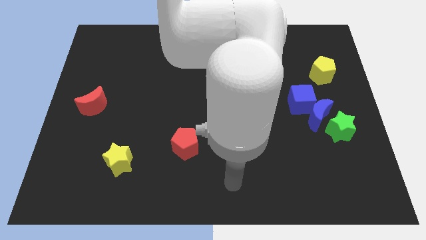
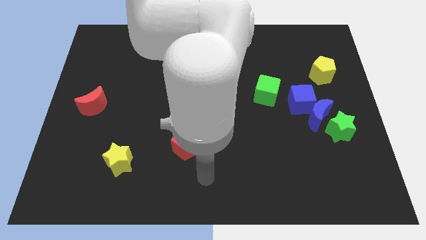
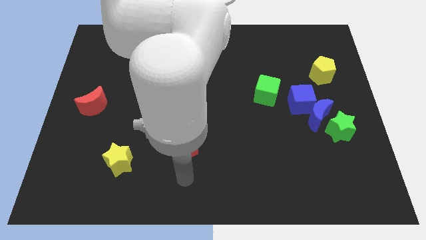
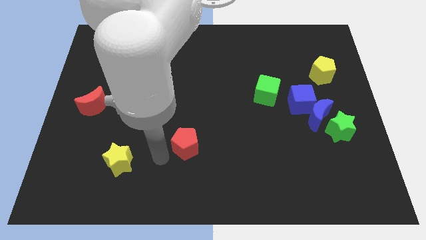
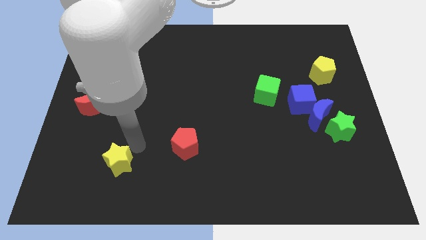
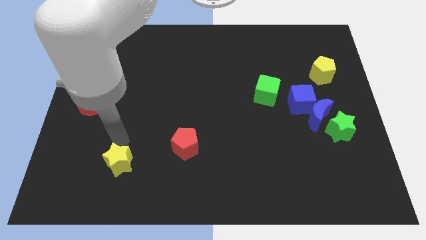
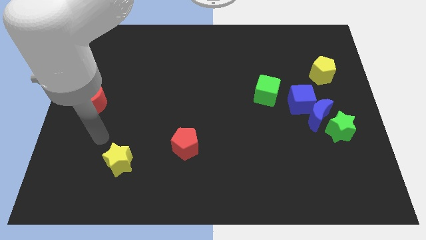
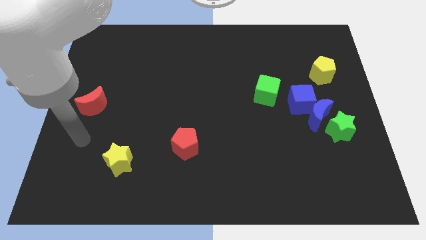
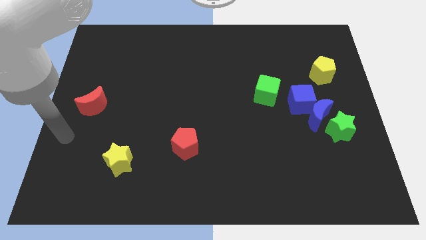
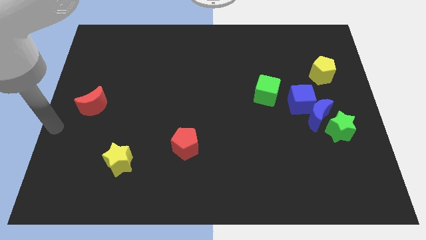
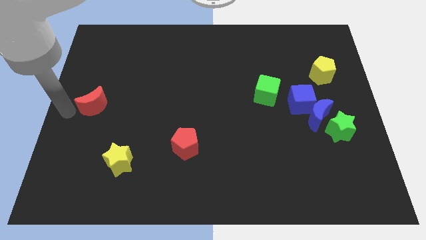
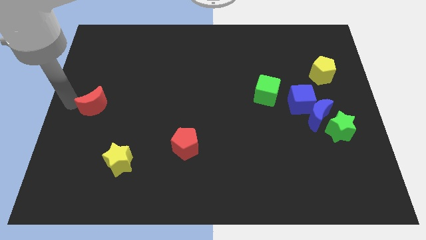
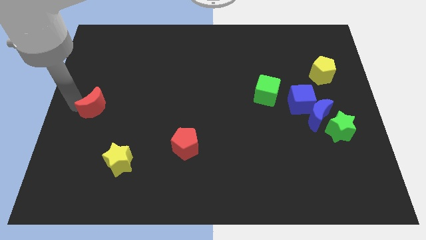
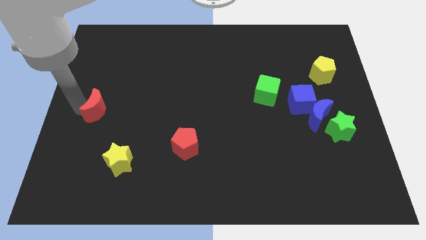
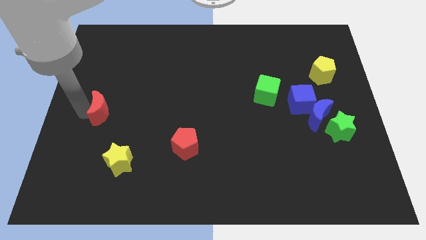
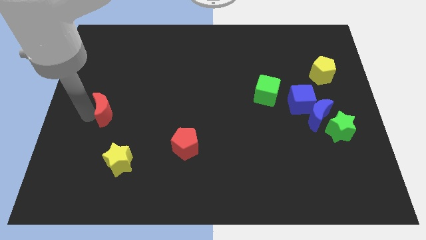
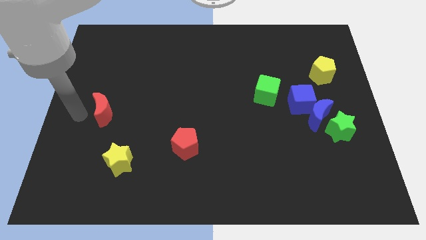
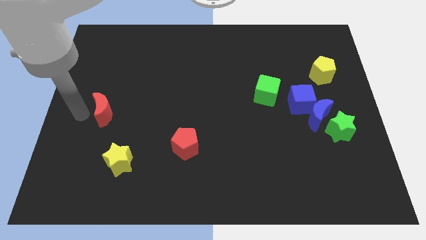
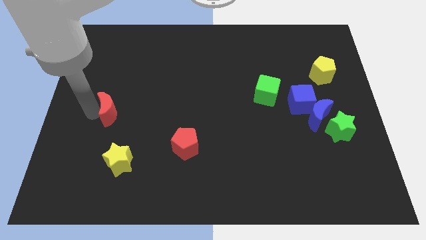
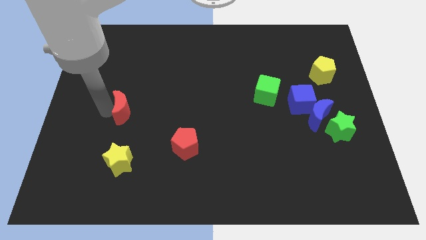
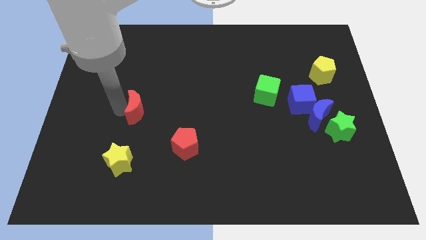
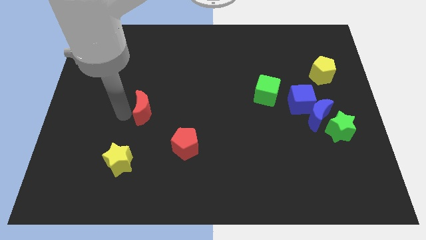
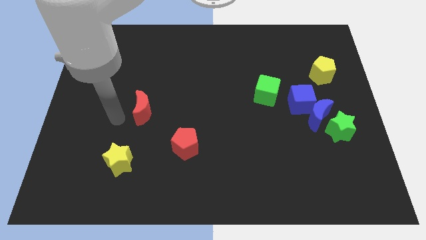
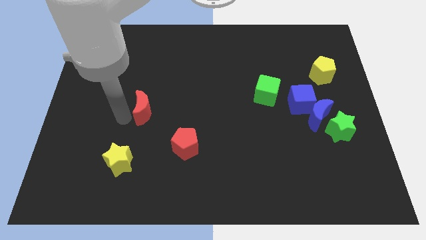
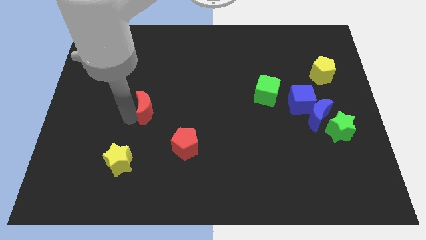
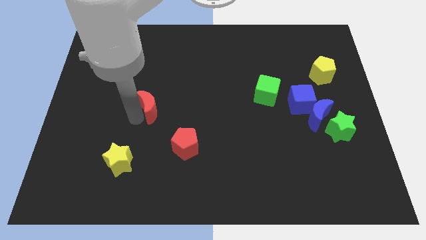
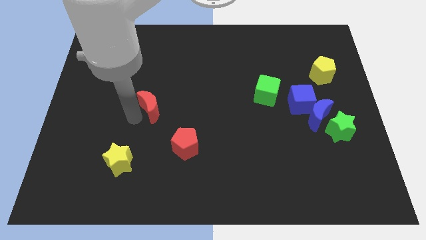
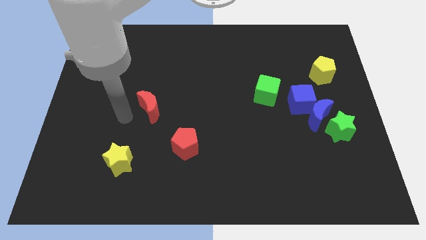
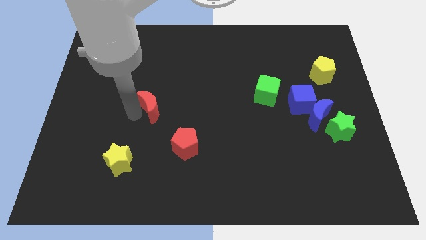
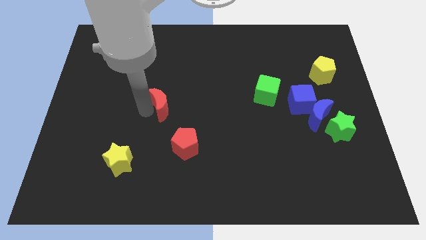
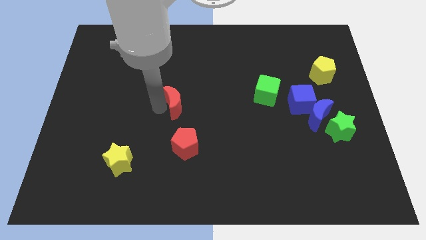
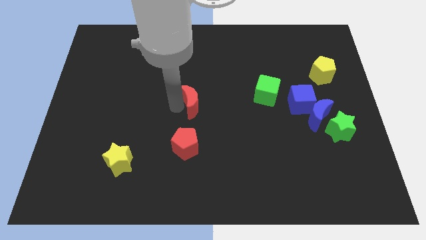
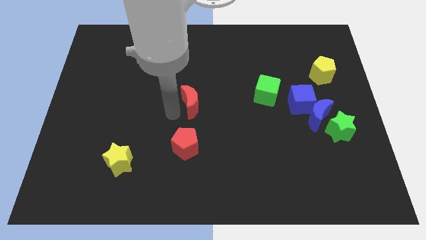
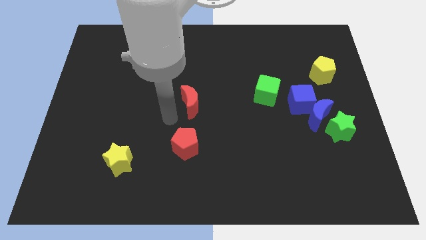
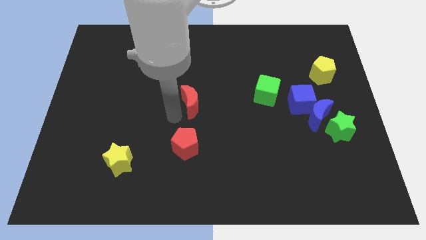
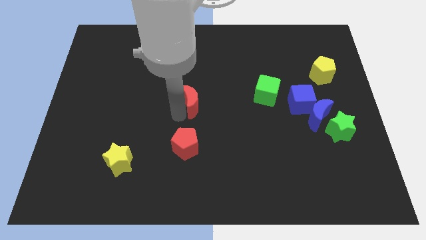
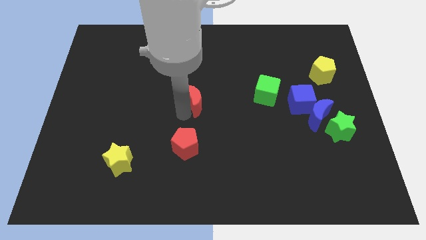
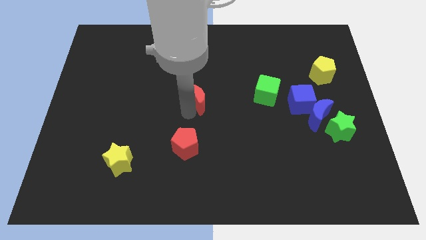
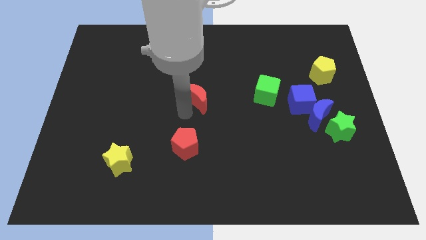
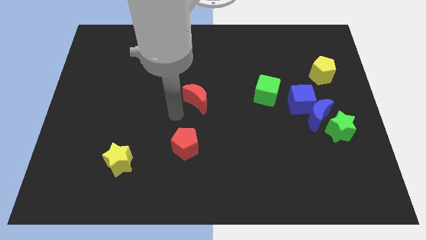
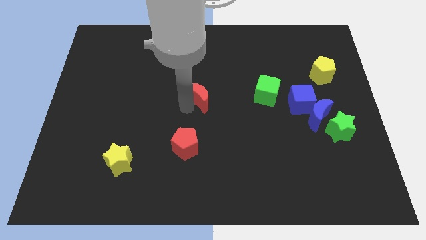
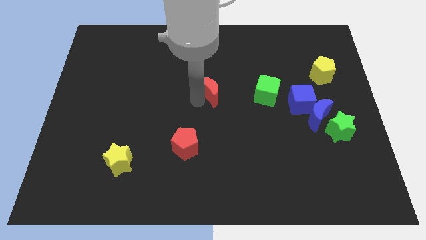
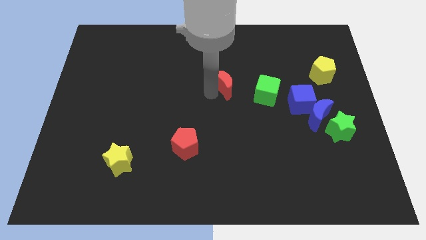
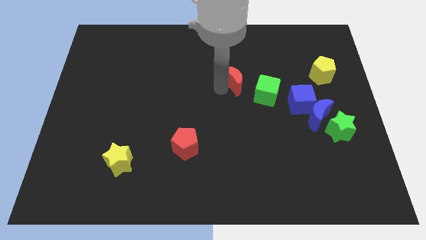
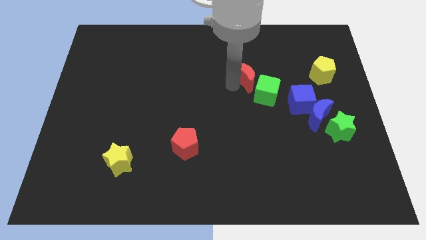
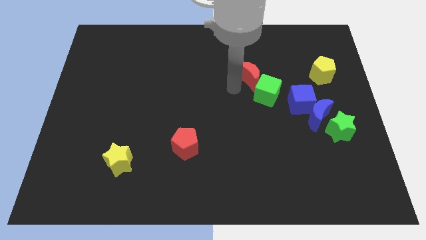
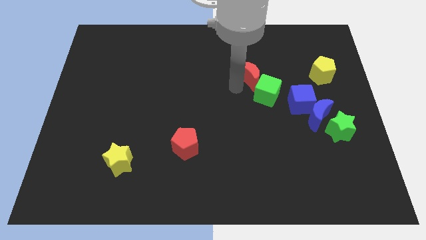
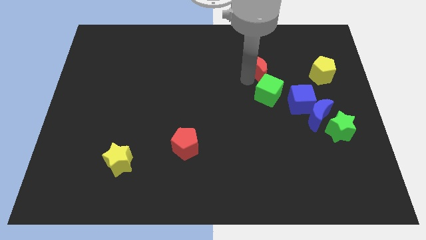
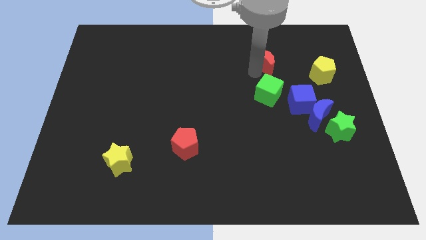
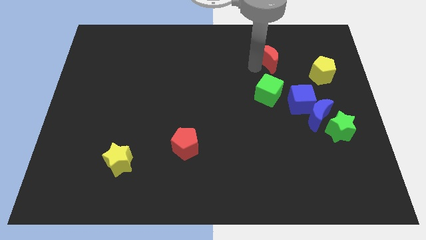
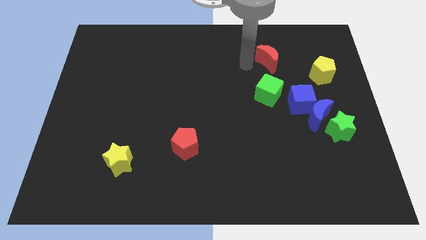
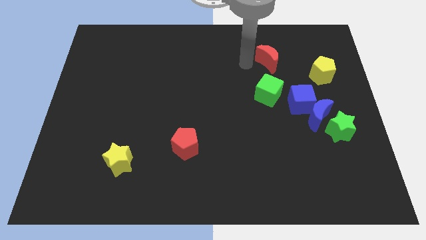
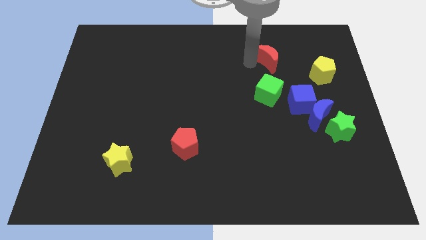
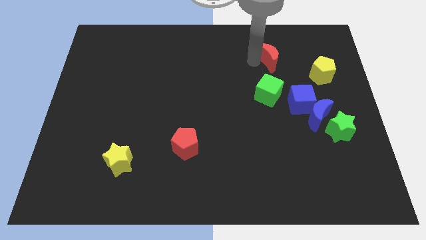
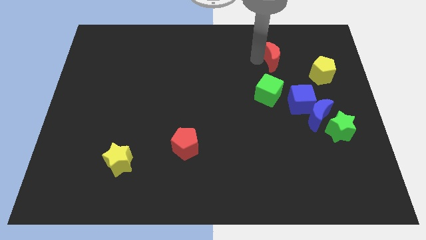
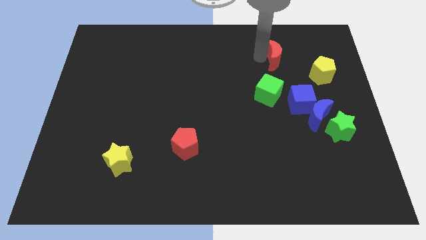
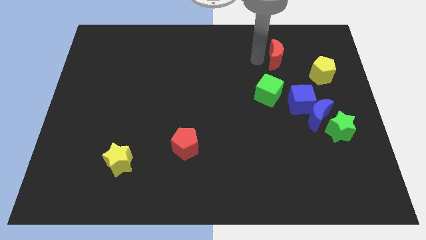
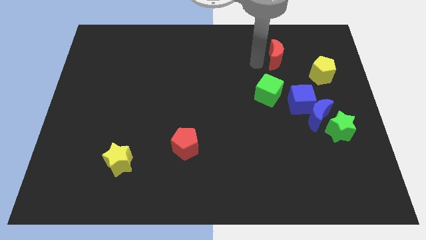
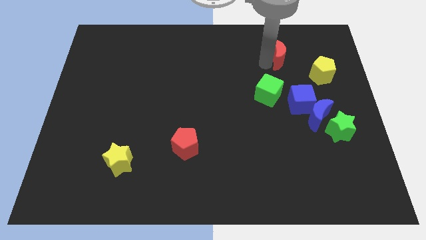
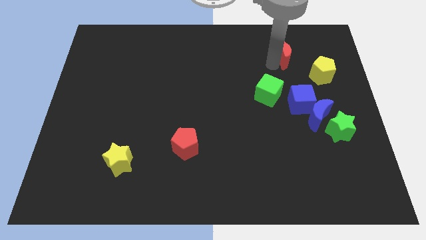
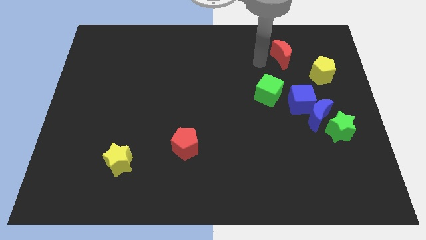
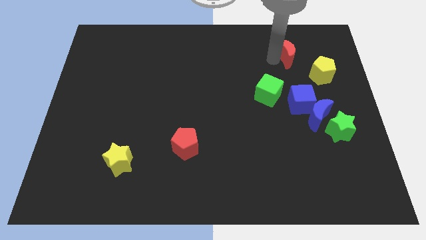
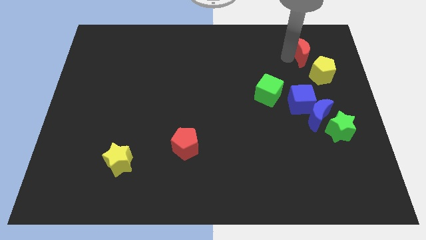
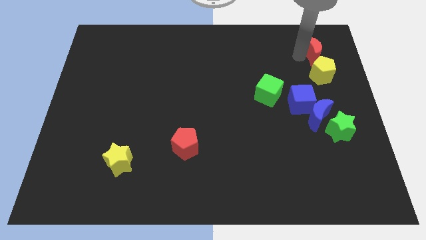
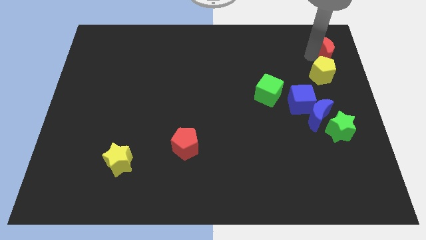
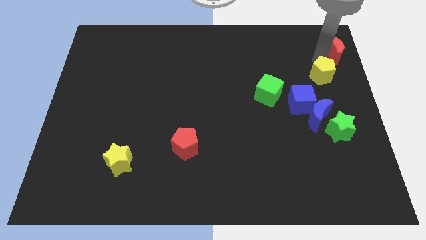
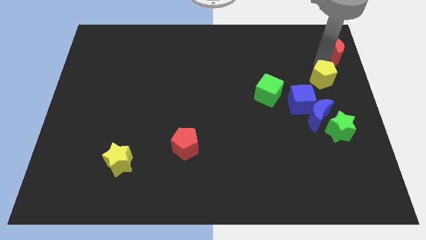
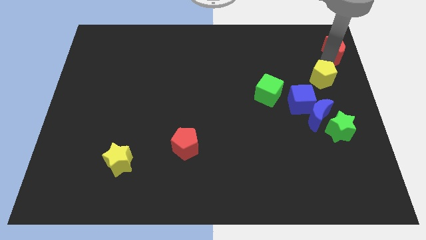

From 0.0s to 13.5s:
put the red moon to the top right corner
